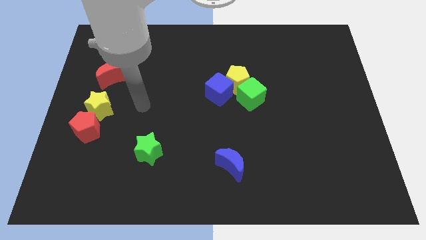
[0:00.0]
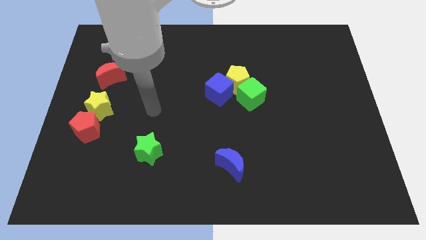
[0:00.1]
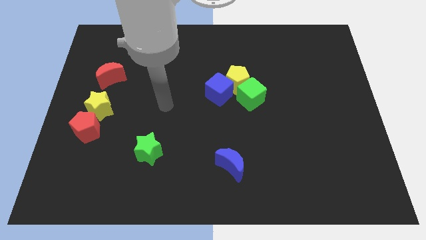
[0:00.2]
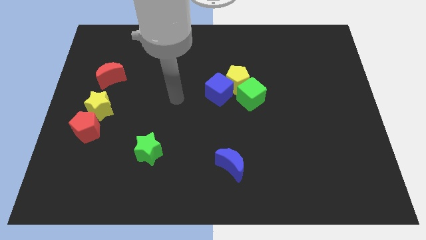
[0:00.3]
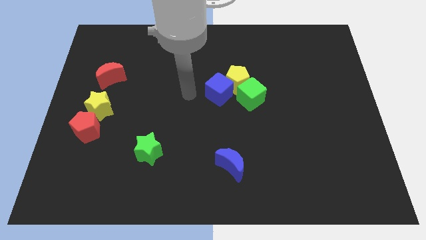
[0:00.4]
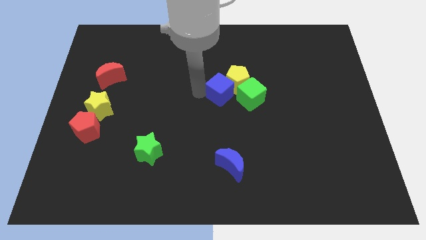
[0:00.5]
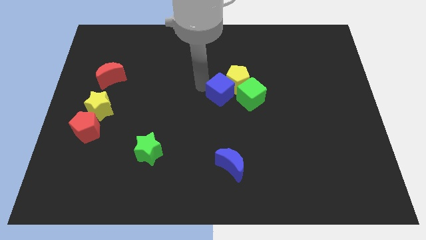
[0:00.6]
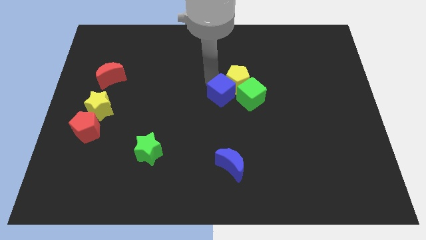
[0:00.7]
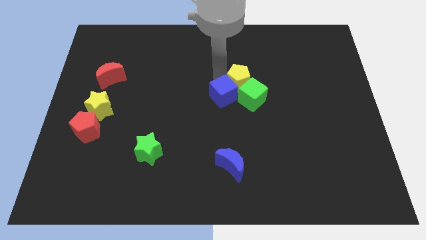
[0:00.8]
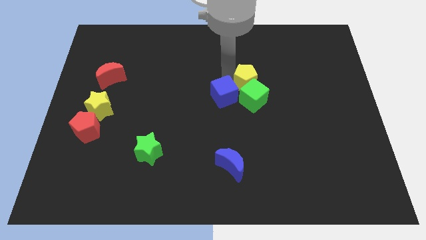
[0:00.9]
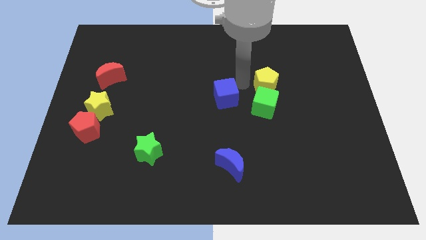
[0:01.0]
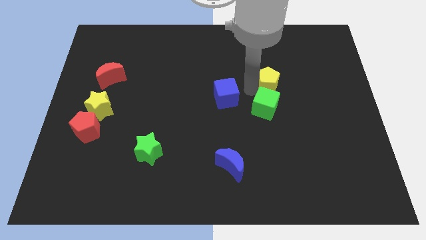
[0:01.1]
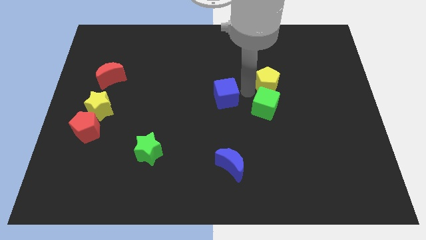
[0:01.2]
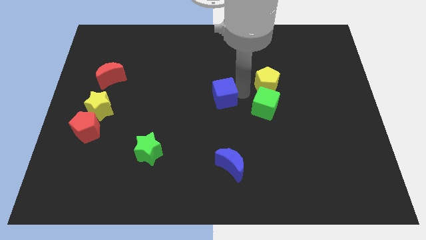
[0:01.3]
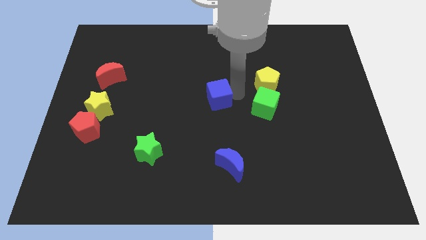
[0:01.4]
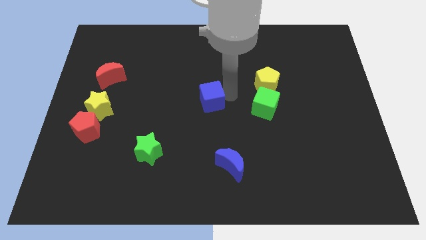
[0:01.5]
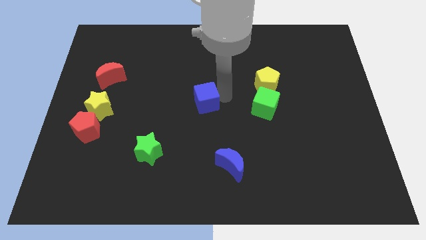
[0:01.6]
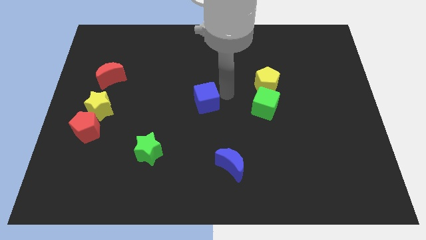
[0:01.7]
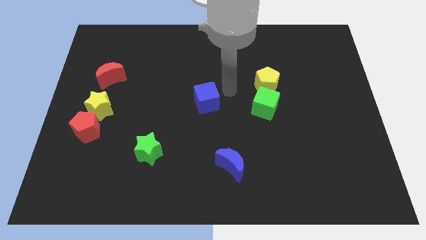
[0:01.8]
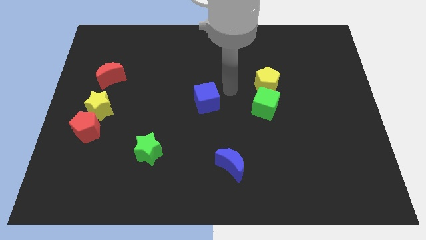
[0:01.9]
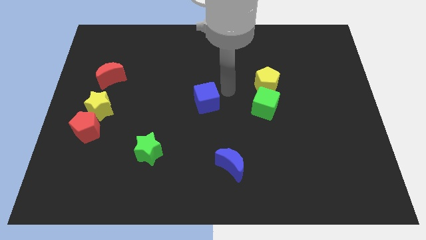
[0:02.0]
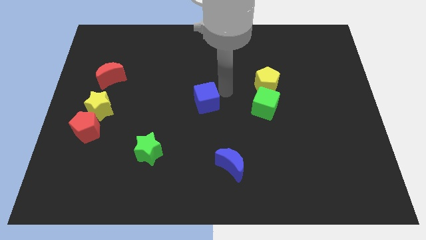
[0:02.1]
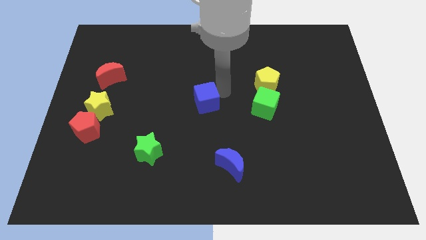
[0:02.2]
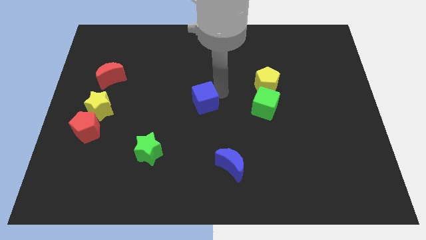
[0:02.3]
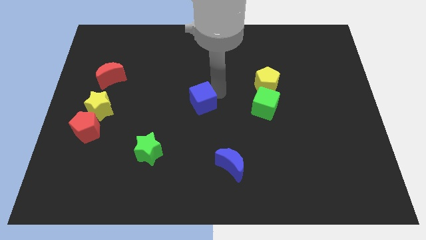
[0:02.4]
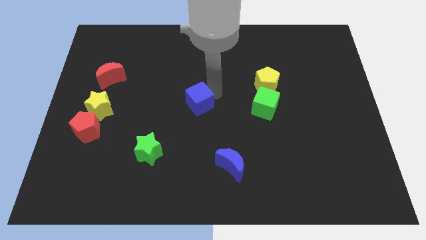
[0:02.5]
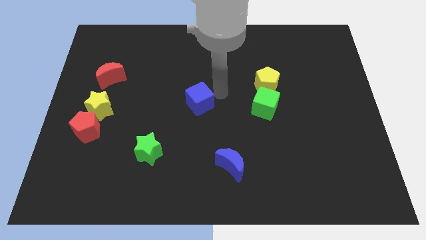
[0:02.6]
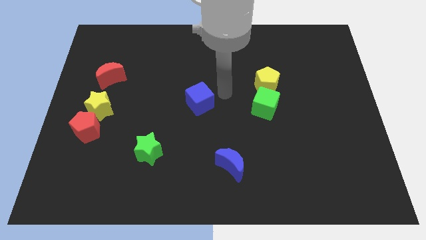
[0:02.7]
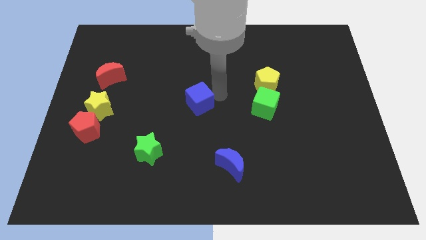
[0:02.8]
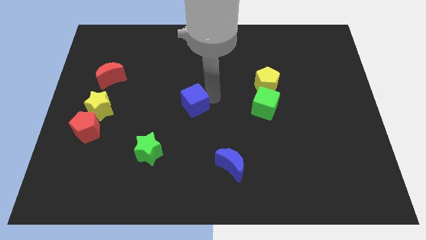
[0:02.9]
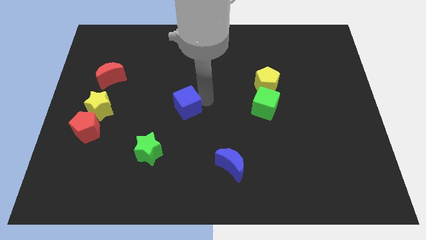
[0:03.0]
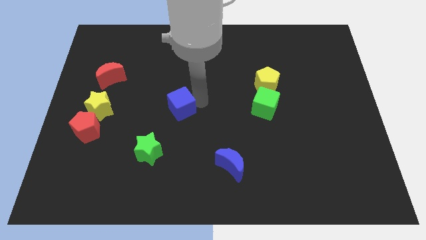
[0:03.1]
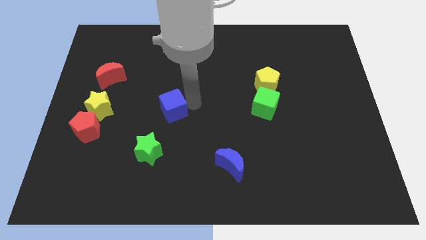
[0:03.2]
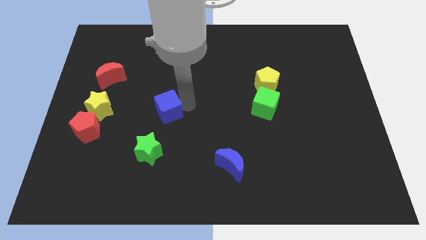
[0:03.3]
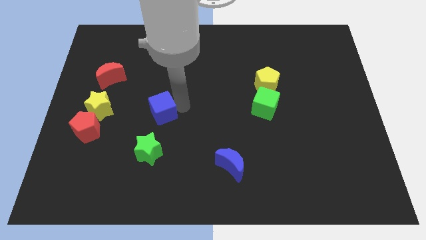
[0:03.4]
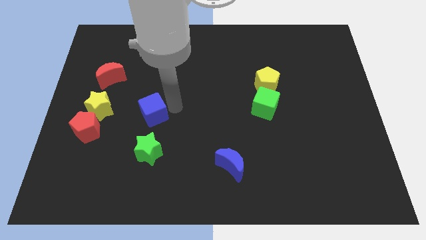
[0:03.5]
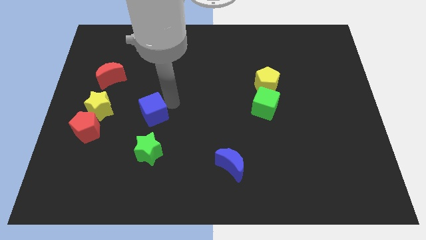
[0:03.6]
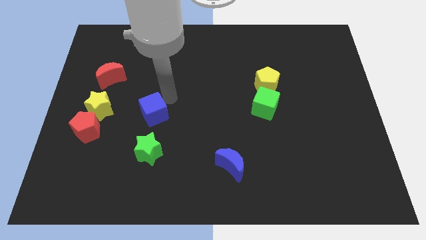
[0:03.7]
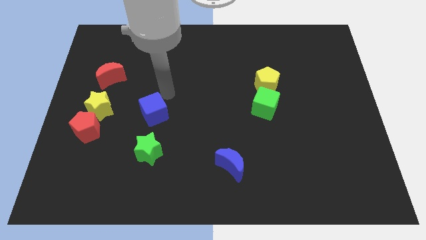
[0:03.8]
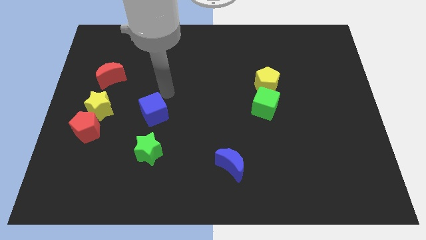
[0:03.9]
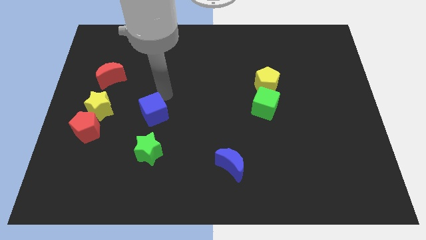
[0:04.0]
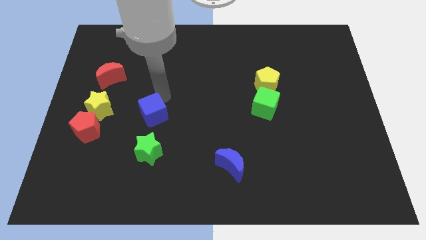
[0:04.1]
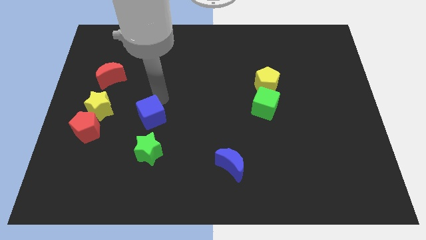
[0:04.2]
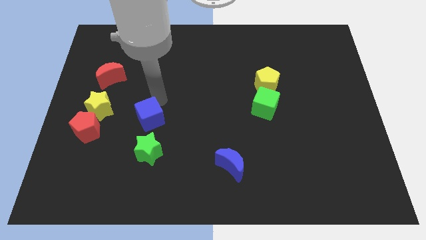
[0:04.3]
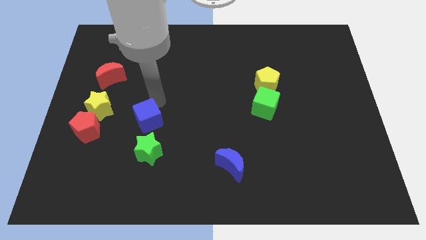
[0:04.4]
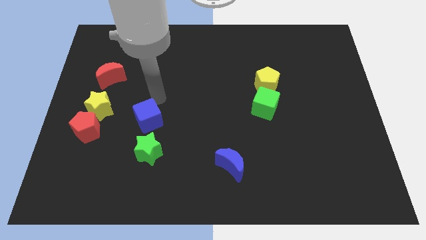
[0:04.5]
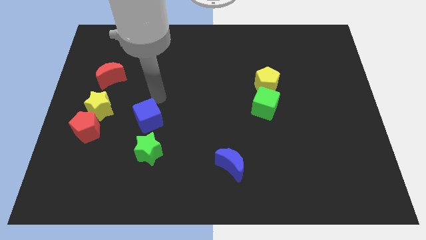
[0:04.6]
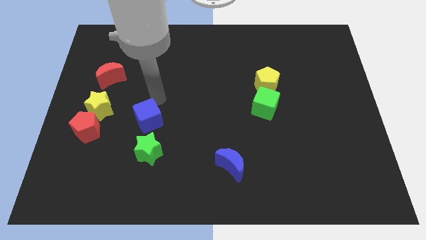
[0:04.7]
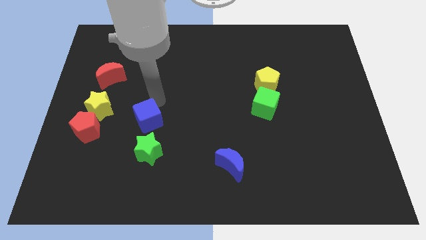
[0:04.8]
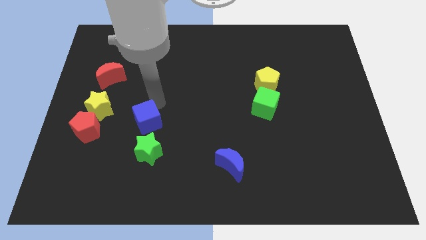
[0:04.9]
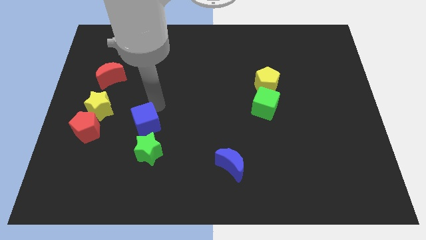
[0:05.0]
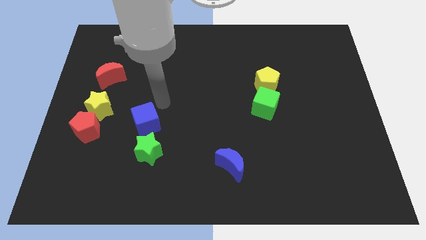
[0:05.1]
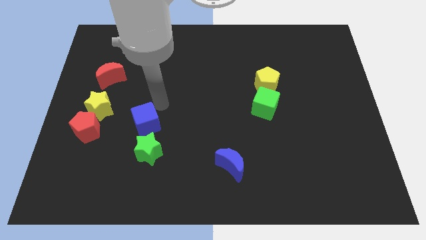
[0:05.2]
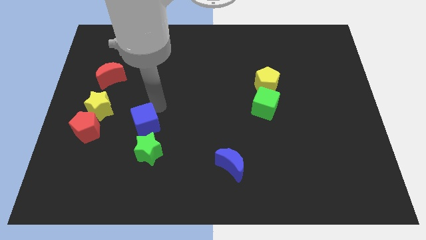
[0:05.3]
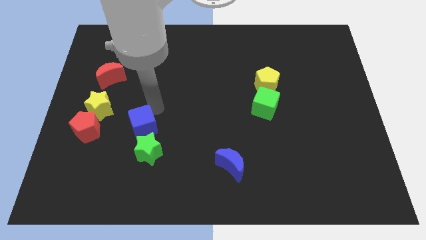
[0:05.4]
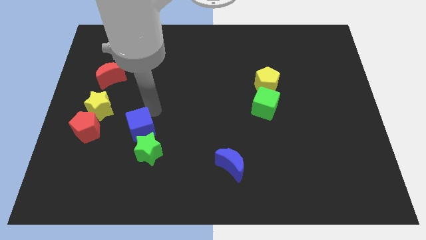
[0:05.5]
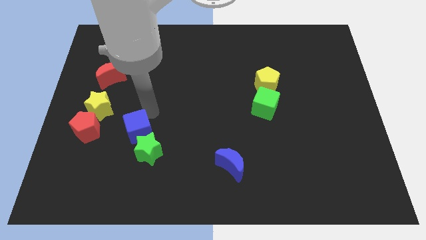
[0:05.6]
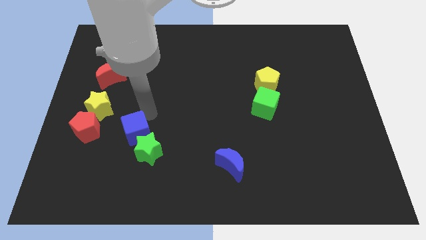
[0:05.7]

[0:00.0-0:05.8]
slide the blue cube down and left diagonally

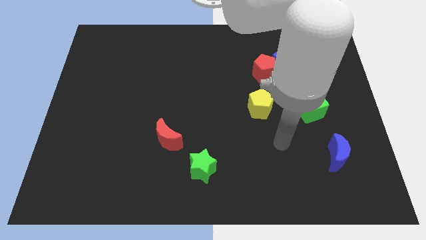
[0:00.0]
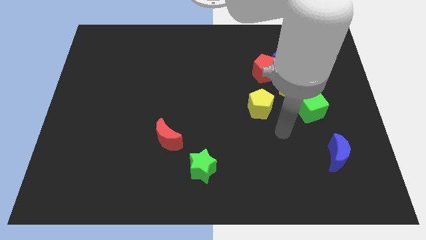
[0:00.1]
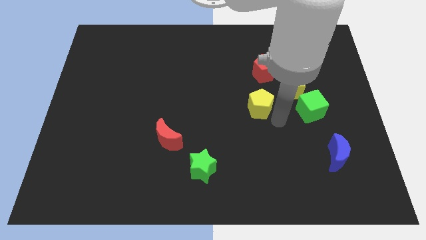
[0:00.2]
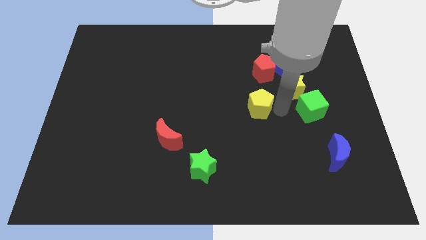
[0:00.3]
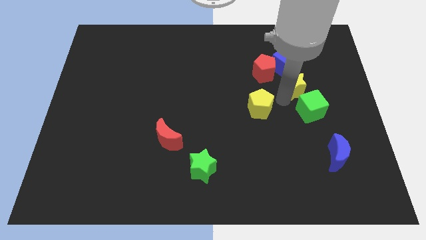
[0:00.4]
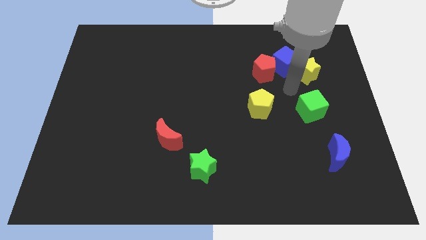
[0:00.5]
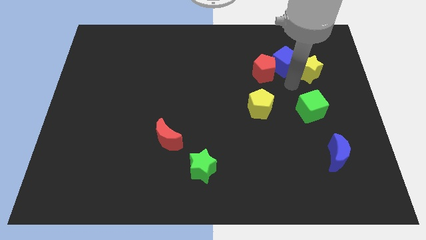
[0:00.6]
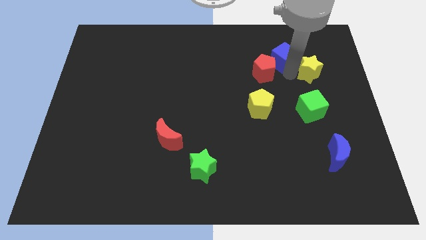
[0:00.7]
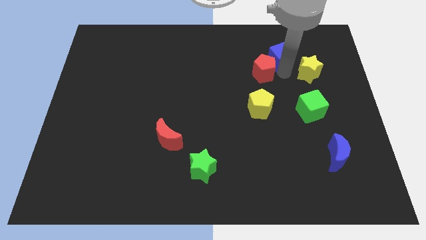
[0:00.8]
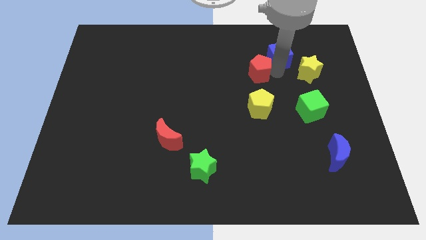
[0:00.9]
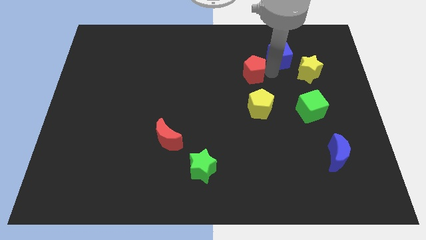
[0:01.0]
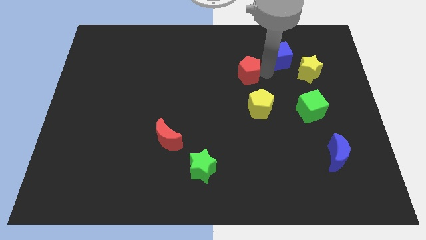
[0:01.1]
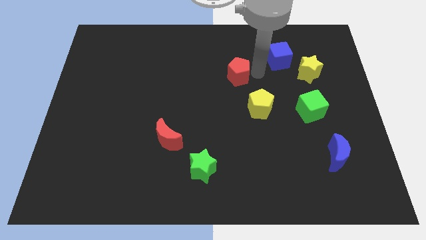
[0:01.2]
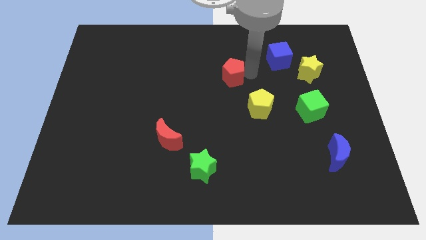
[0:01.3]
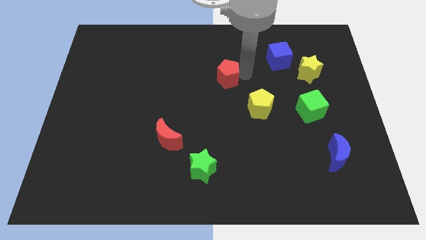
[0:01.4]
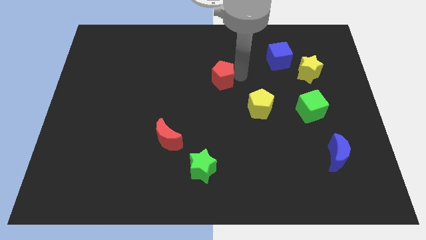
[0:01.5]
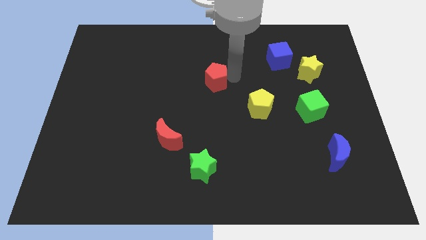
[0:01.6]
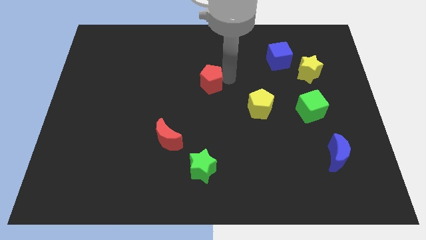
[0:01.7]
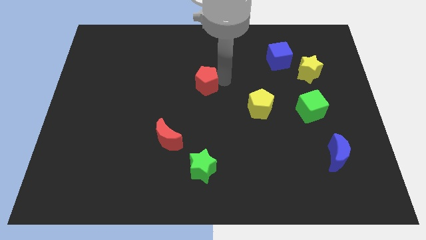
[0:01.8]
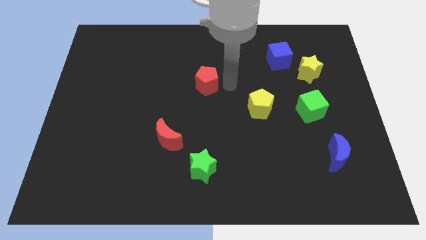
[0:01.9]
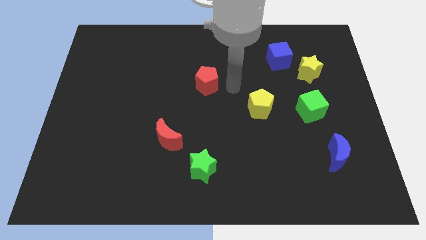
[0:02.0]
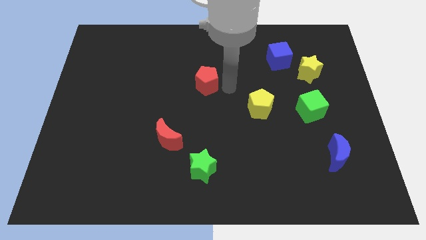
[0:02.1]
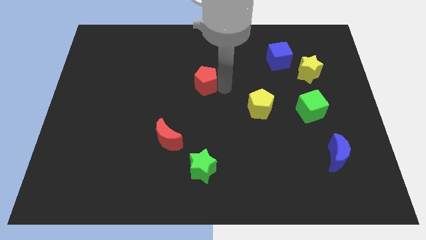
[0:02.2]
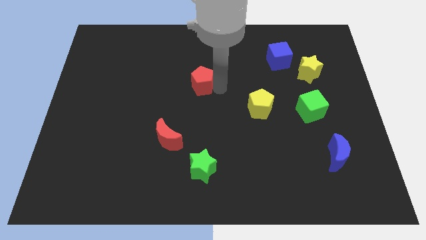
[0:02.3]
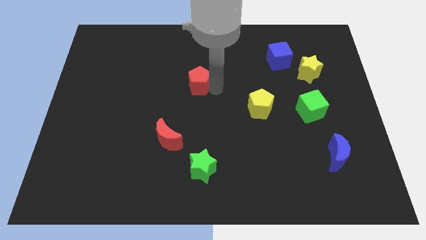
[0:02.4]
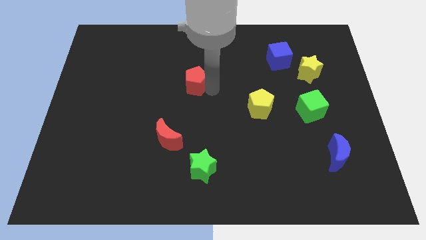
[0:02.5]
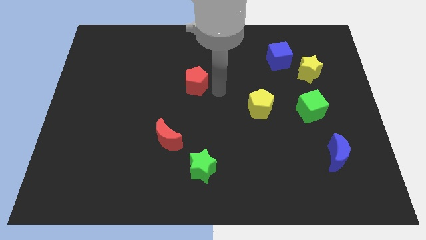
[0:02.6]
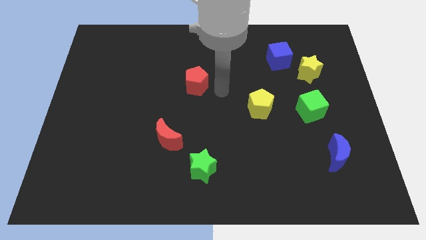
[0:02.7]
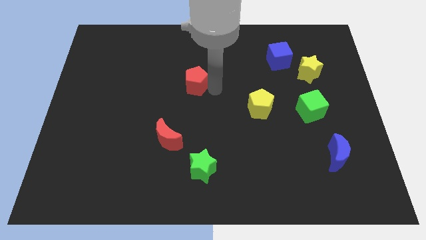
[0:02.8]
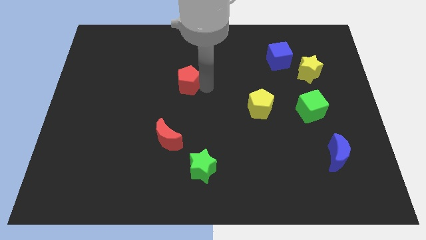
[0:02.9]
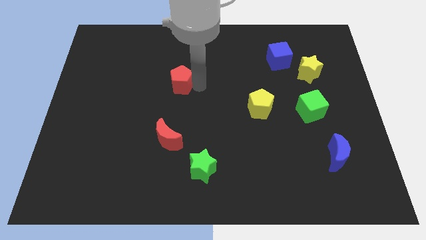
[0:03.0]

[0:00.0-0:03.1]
slide the red pentagon to the left
